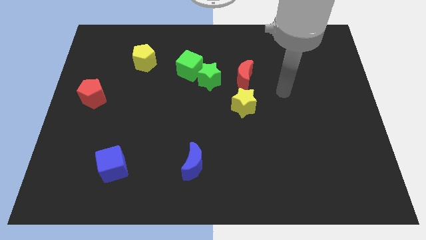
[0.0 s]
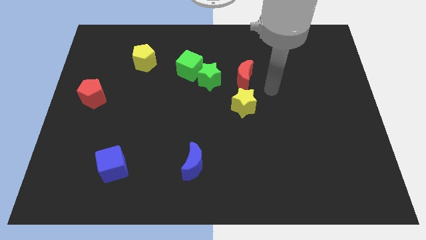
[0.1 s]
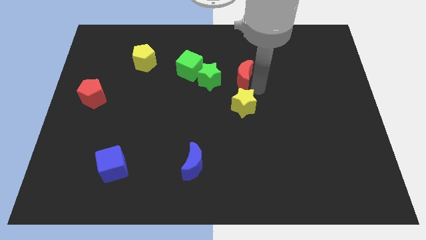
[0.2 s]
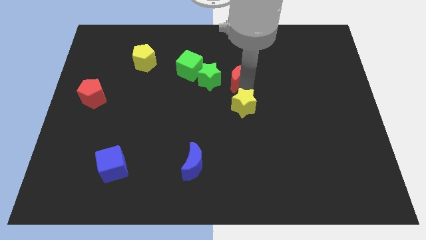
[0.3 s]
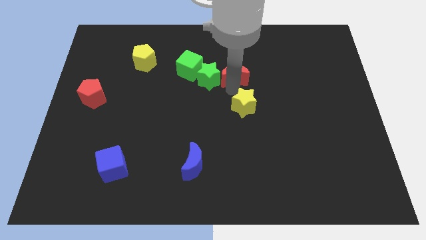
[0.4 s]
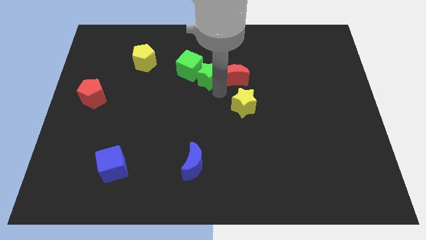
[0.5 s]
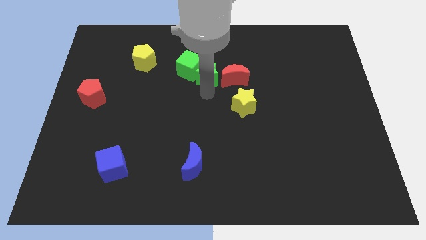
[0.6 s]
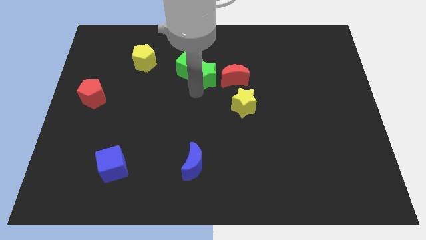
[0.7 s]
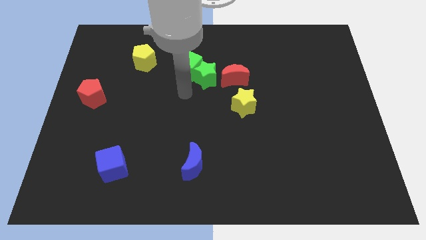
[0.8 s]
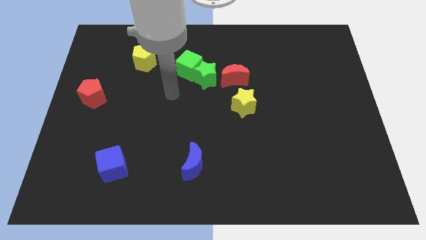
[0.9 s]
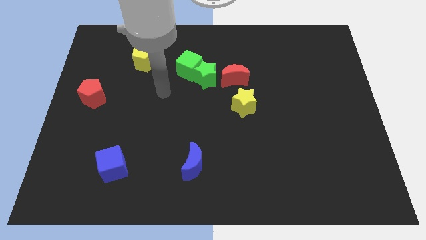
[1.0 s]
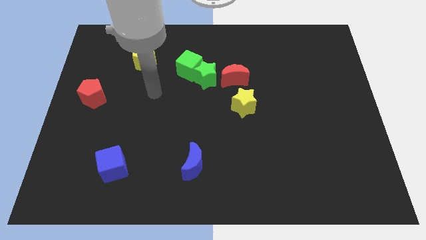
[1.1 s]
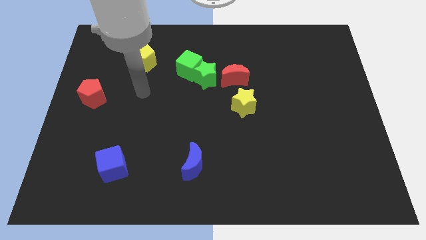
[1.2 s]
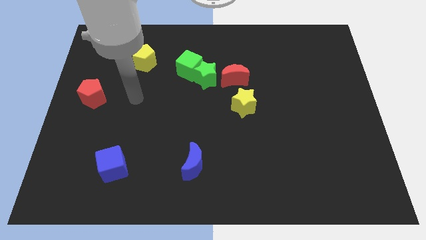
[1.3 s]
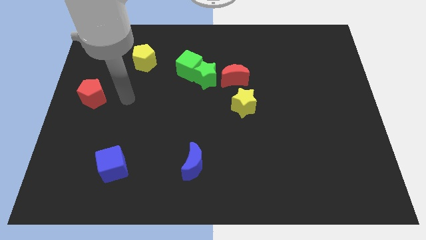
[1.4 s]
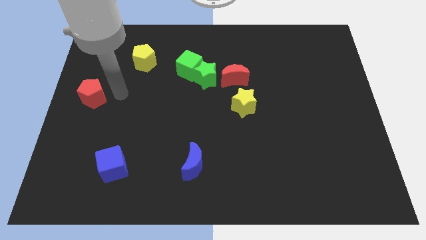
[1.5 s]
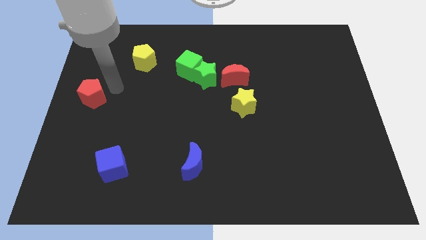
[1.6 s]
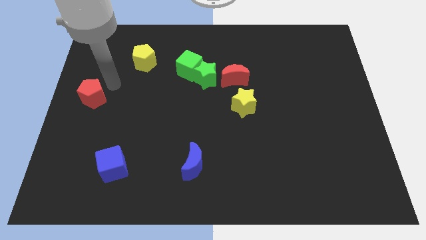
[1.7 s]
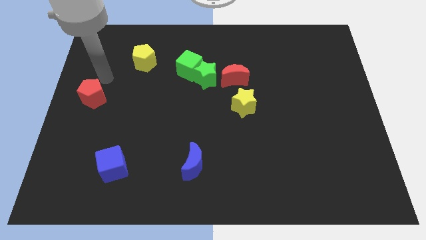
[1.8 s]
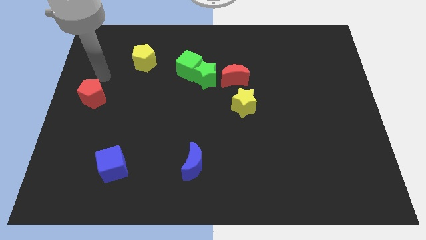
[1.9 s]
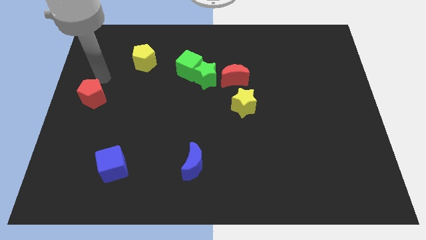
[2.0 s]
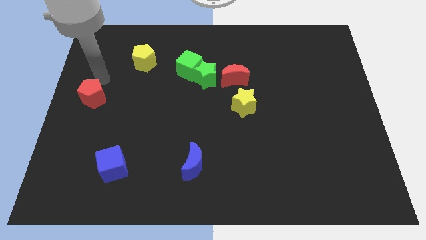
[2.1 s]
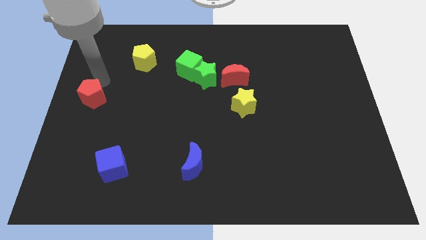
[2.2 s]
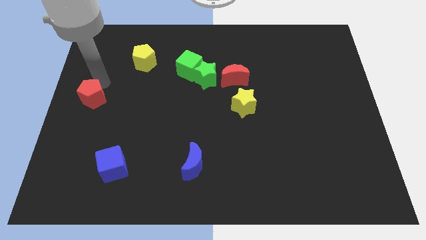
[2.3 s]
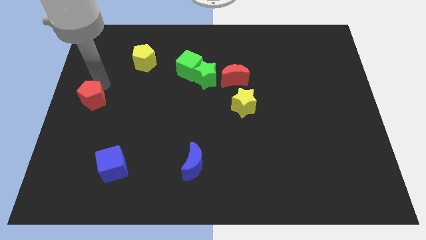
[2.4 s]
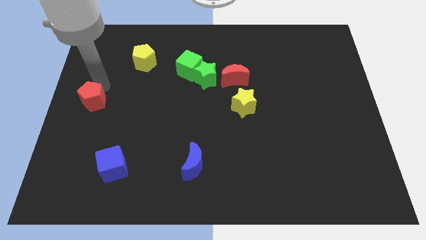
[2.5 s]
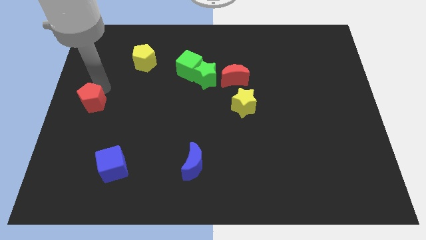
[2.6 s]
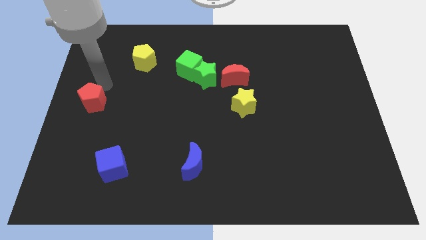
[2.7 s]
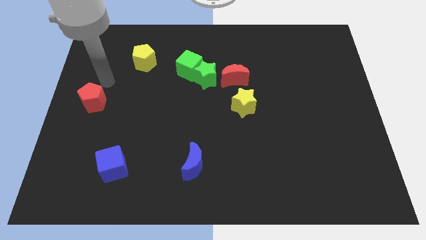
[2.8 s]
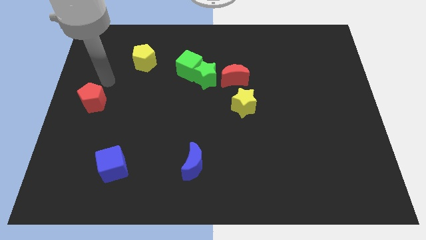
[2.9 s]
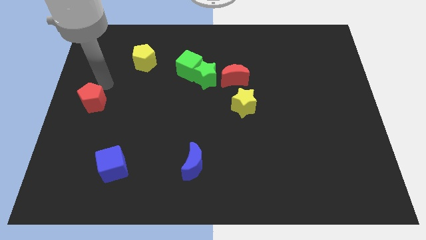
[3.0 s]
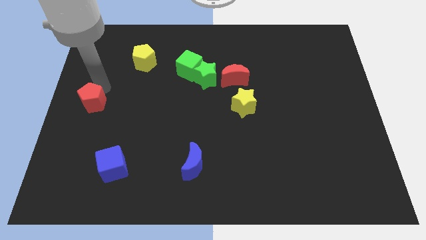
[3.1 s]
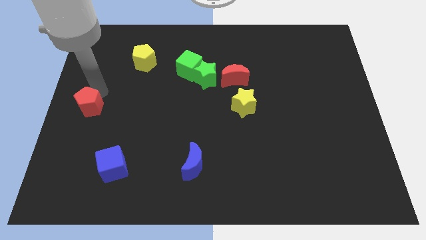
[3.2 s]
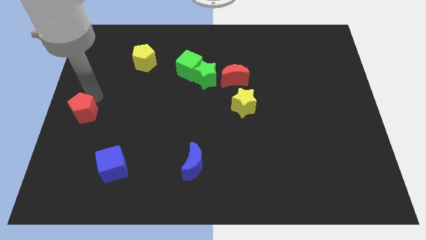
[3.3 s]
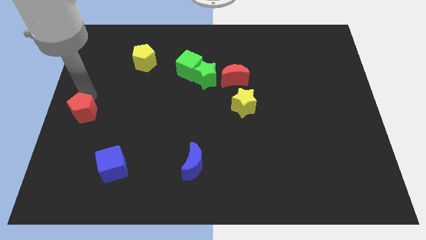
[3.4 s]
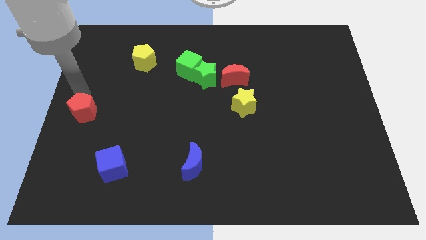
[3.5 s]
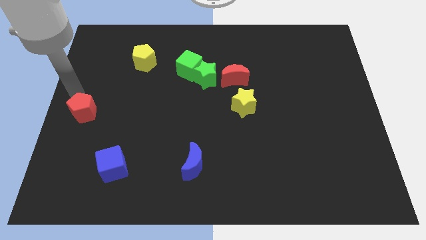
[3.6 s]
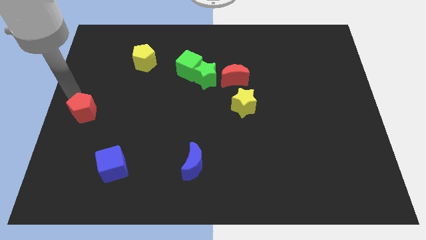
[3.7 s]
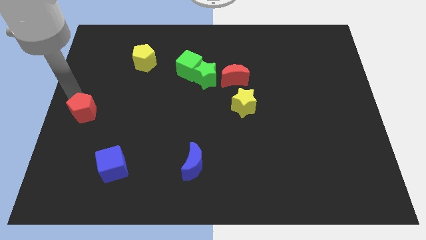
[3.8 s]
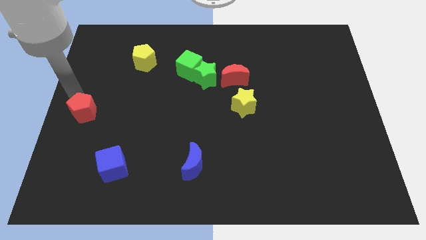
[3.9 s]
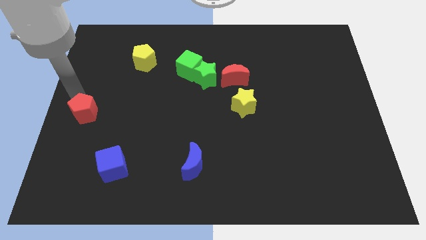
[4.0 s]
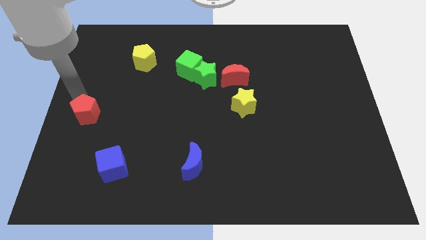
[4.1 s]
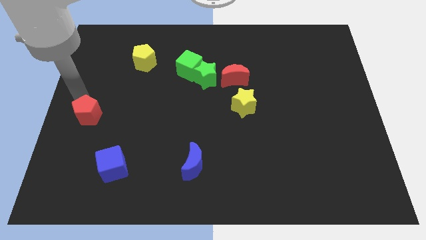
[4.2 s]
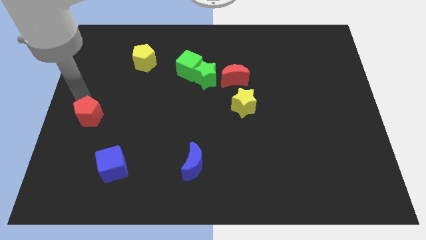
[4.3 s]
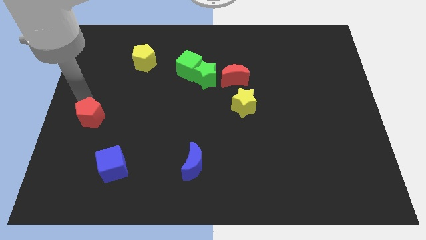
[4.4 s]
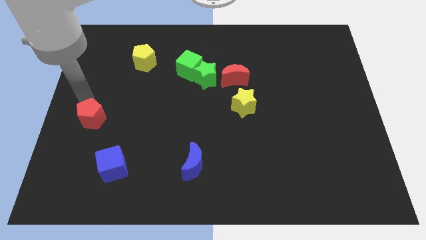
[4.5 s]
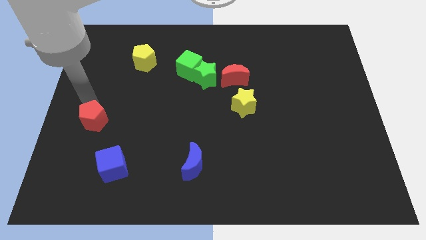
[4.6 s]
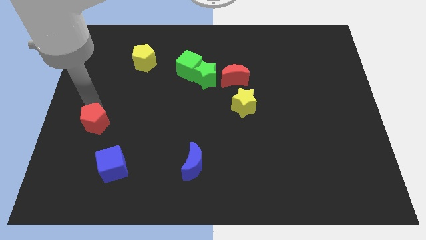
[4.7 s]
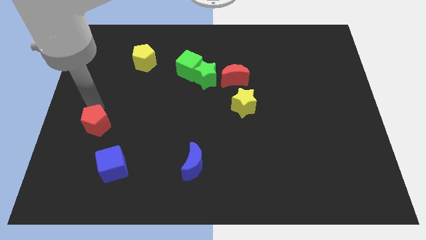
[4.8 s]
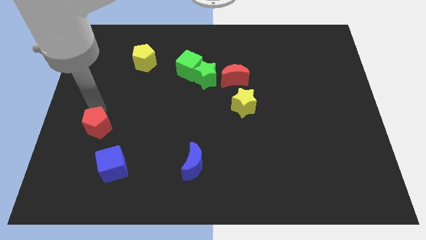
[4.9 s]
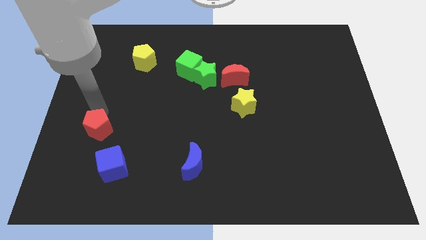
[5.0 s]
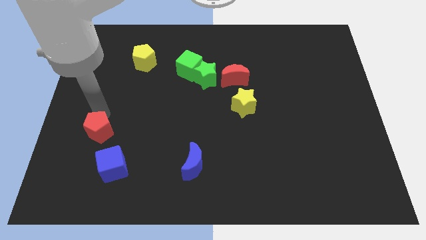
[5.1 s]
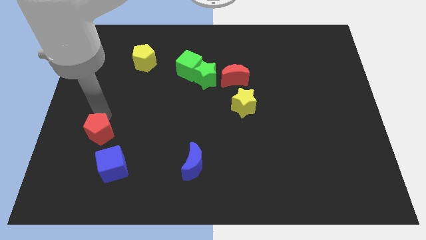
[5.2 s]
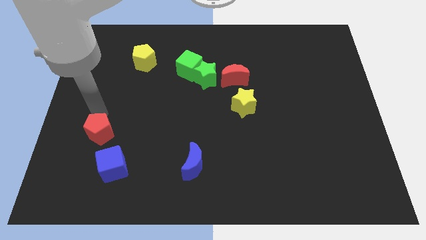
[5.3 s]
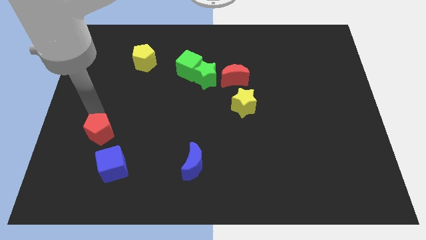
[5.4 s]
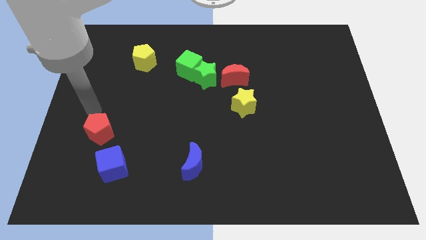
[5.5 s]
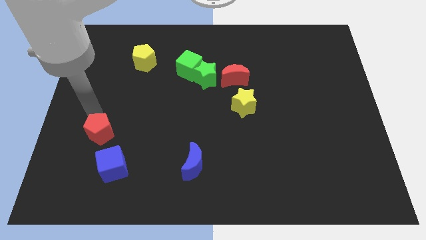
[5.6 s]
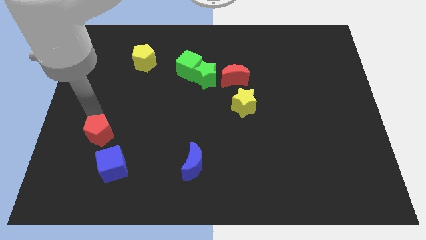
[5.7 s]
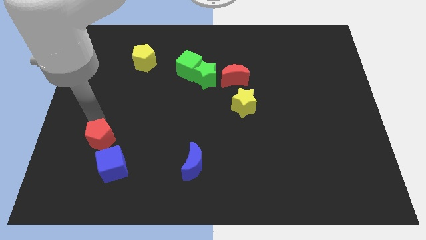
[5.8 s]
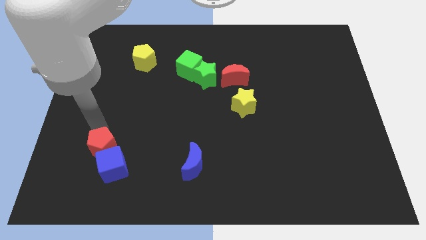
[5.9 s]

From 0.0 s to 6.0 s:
move the red pentagon to the blue cube

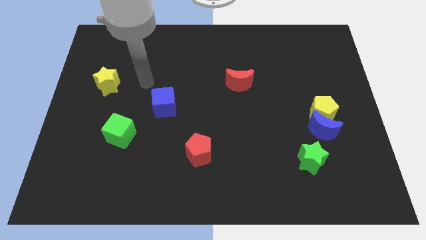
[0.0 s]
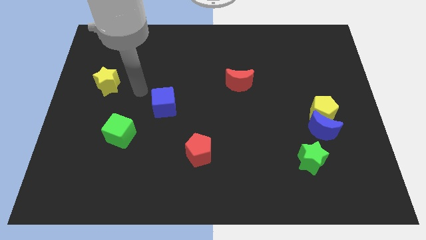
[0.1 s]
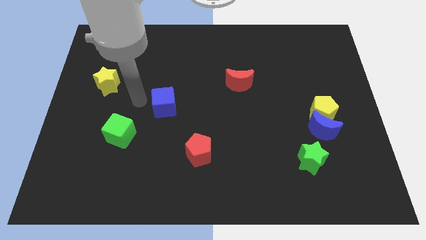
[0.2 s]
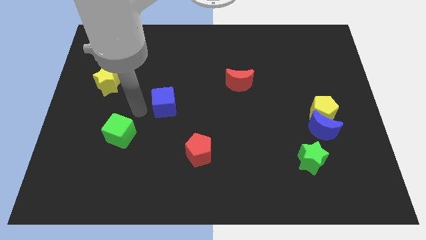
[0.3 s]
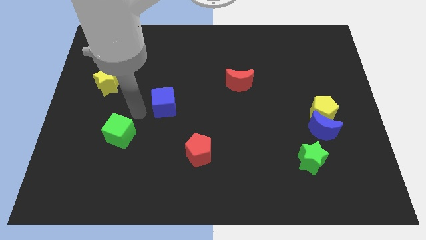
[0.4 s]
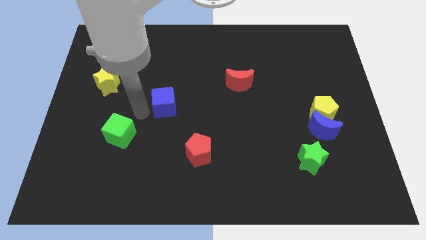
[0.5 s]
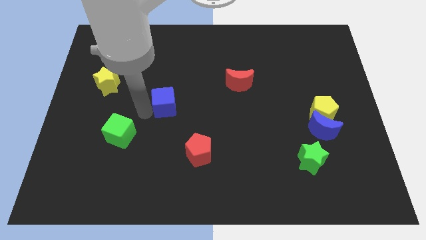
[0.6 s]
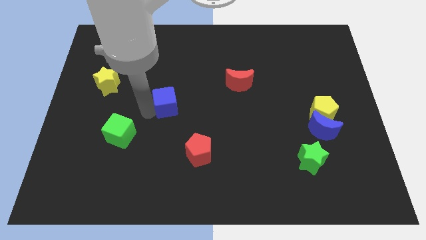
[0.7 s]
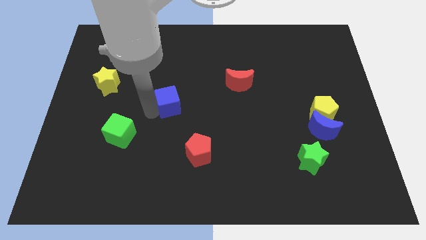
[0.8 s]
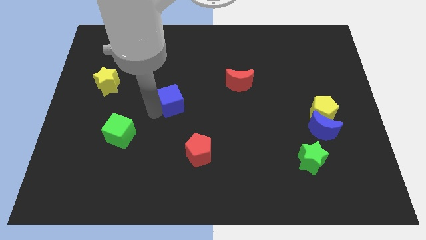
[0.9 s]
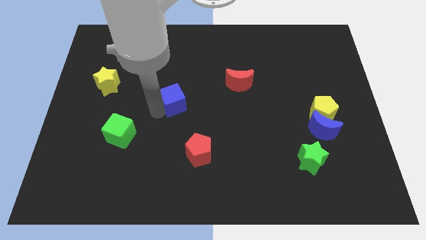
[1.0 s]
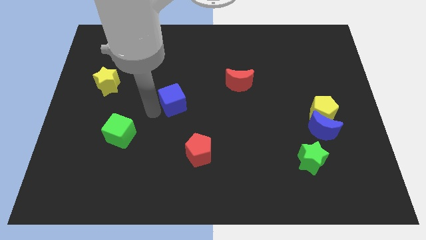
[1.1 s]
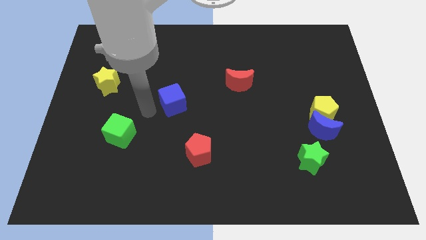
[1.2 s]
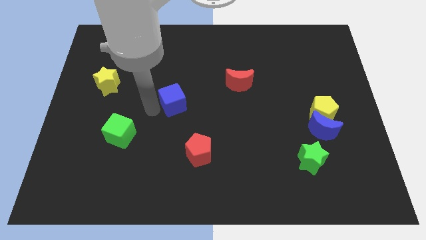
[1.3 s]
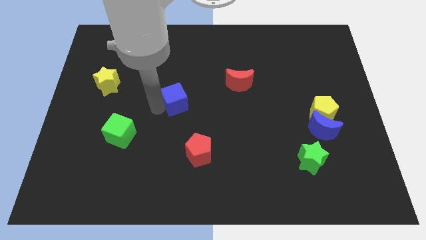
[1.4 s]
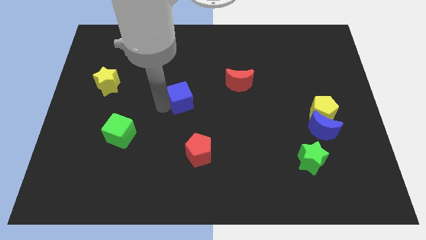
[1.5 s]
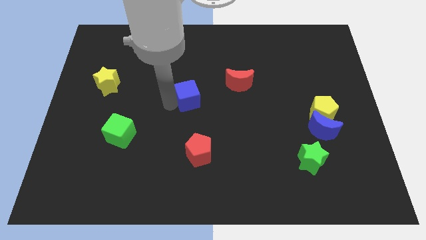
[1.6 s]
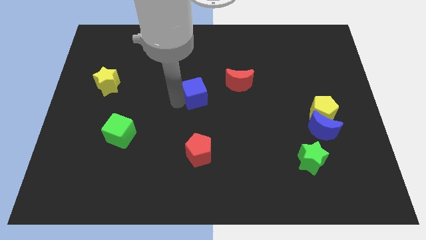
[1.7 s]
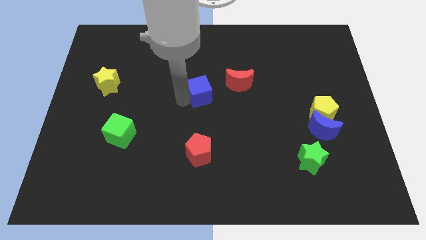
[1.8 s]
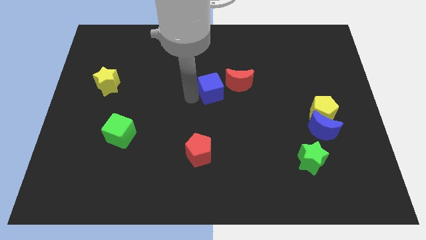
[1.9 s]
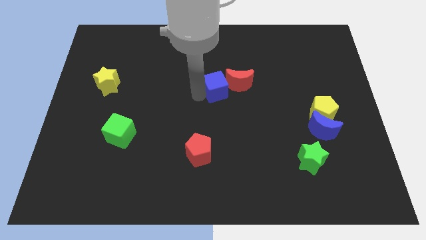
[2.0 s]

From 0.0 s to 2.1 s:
slide the blue cube next to the red moon
